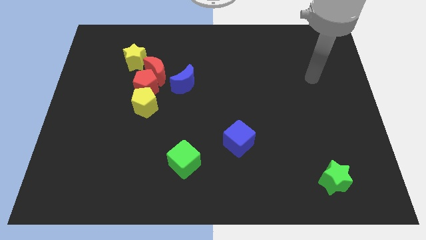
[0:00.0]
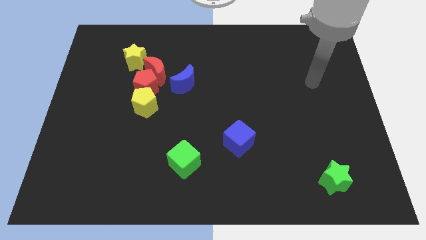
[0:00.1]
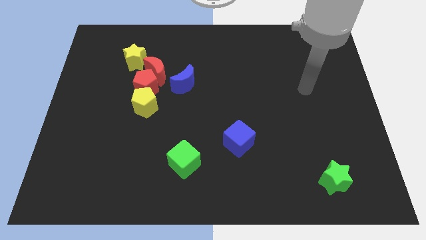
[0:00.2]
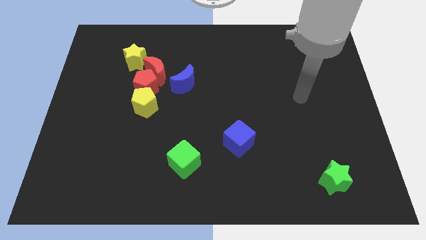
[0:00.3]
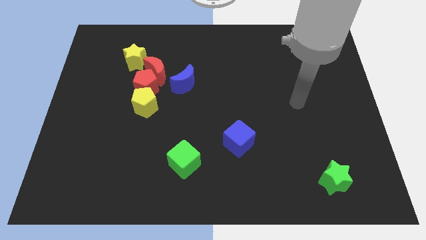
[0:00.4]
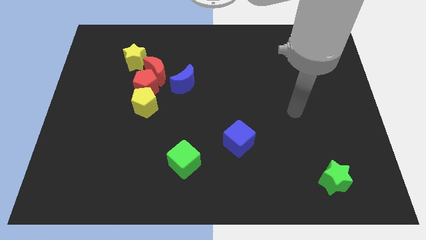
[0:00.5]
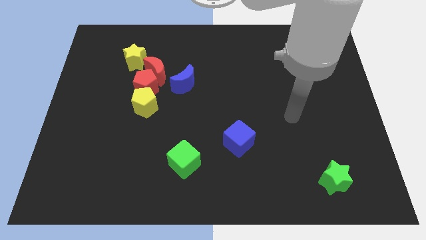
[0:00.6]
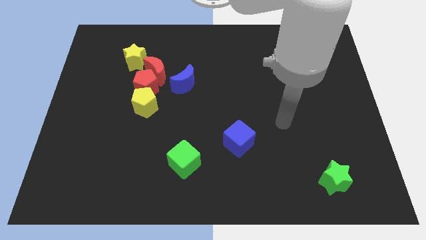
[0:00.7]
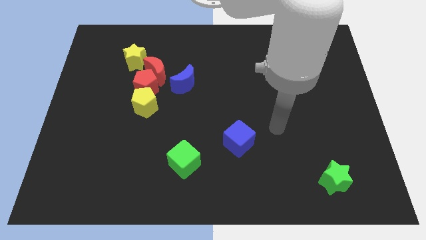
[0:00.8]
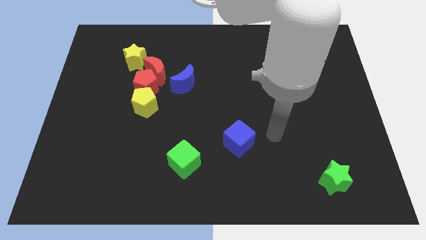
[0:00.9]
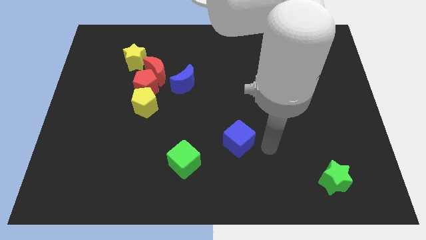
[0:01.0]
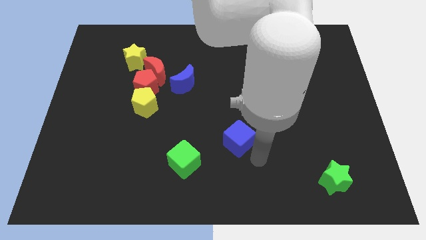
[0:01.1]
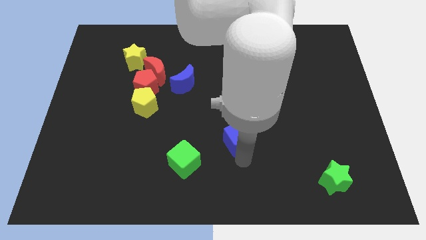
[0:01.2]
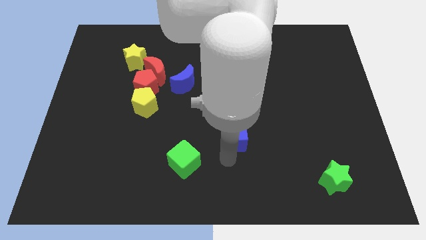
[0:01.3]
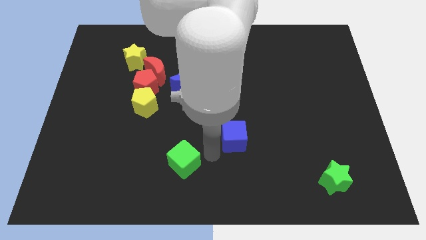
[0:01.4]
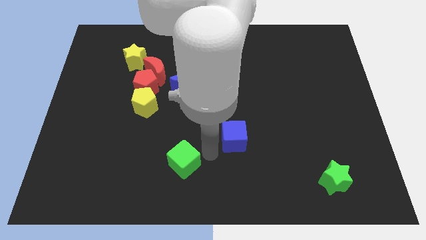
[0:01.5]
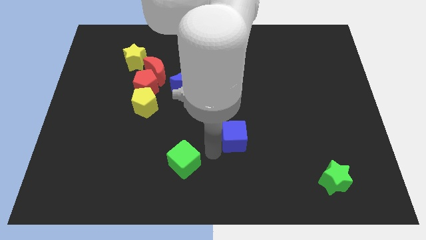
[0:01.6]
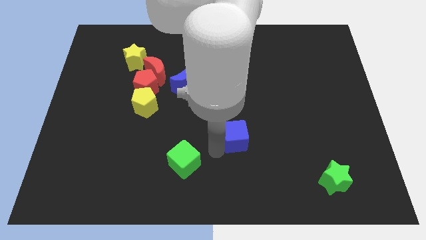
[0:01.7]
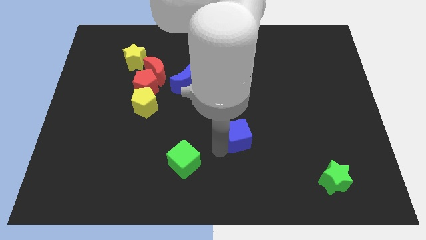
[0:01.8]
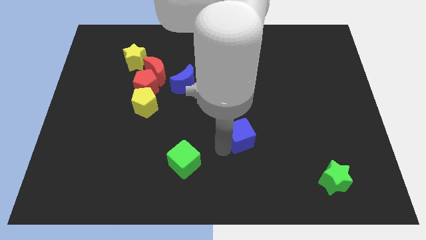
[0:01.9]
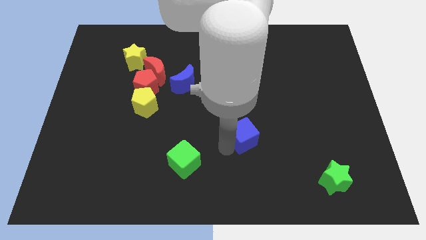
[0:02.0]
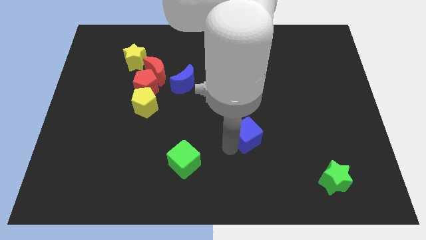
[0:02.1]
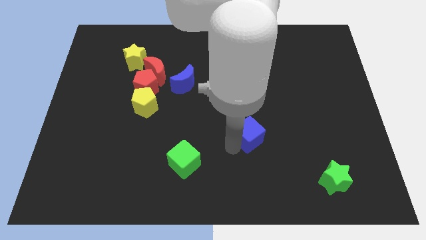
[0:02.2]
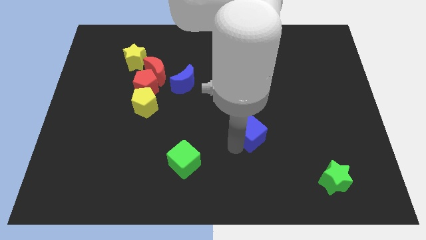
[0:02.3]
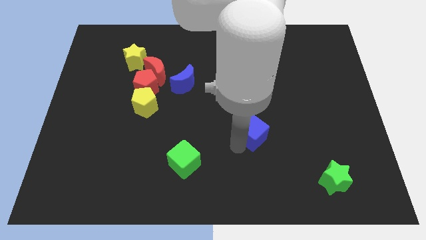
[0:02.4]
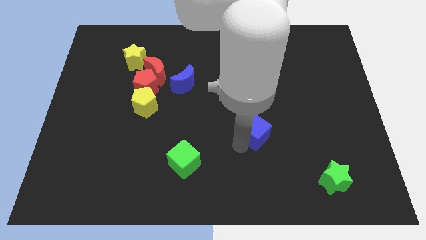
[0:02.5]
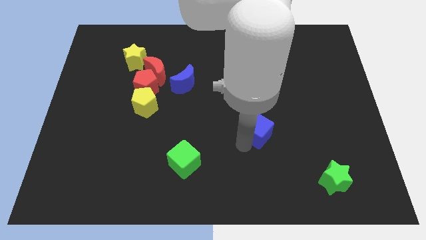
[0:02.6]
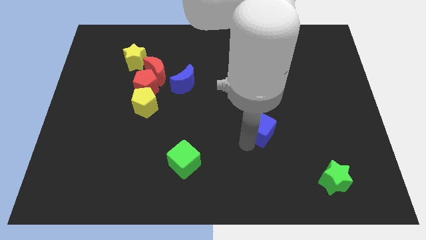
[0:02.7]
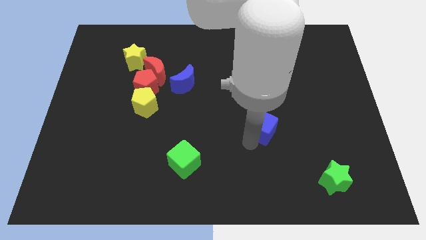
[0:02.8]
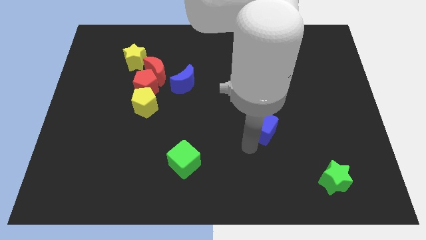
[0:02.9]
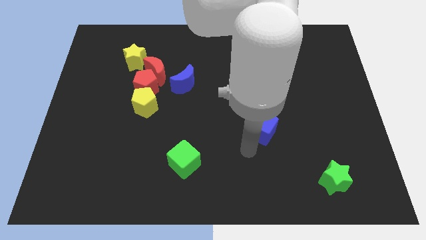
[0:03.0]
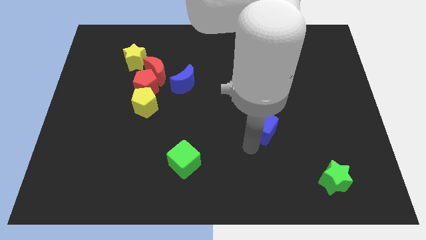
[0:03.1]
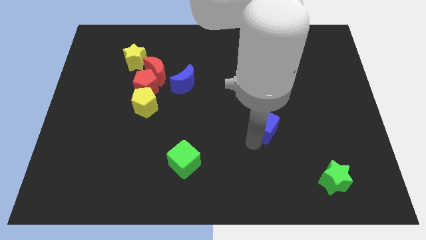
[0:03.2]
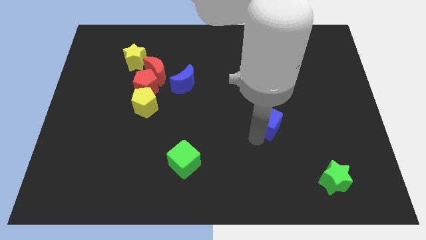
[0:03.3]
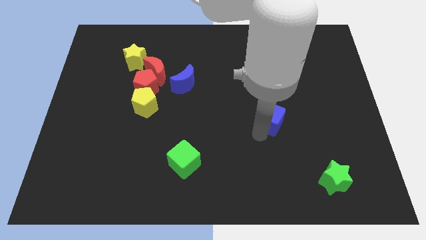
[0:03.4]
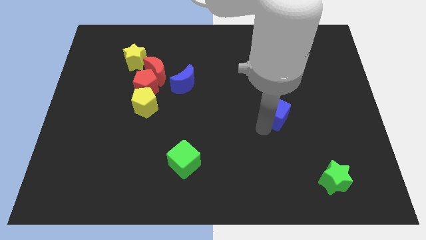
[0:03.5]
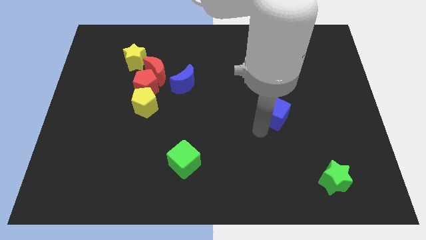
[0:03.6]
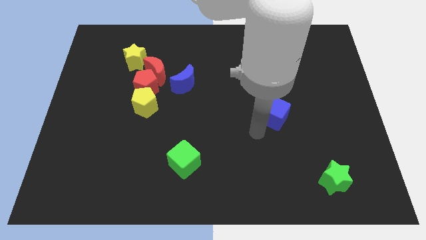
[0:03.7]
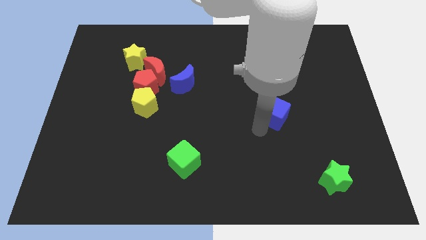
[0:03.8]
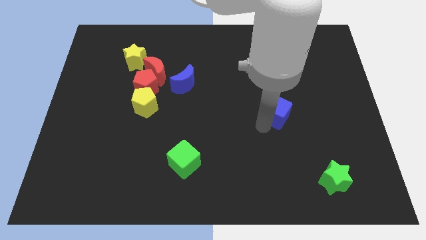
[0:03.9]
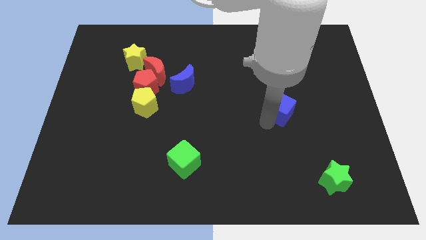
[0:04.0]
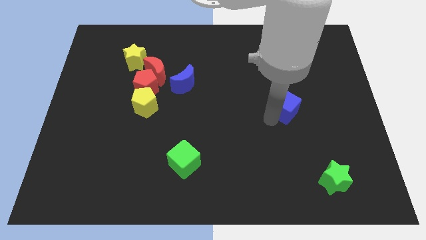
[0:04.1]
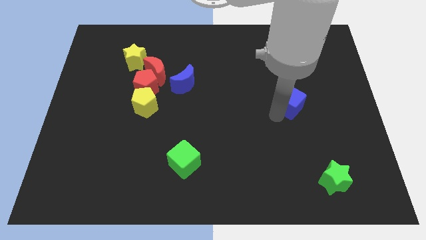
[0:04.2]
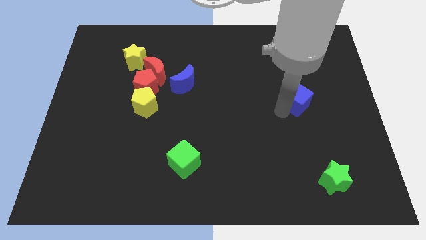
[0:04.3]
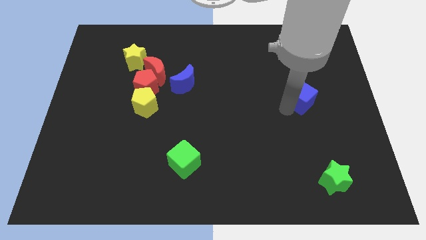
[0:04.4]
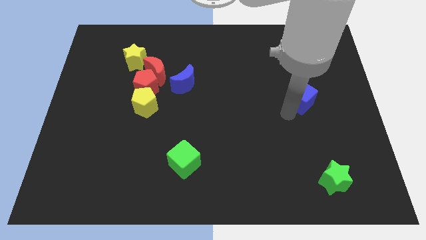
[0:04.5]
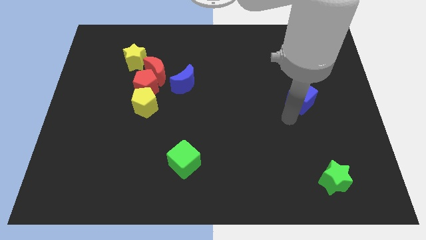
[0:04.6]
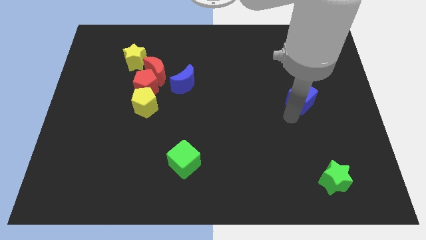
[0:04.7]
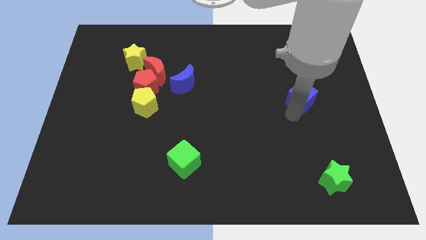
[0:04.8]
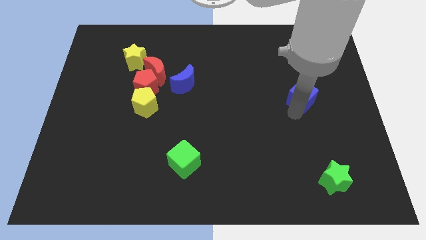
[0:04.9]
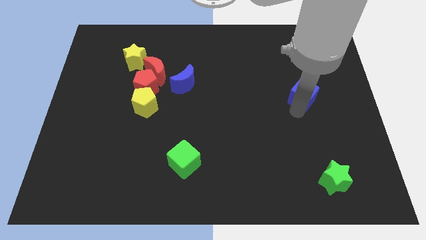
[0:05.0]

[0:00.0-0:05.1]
push the blue cube up and then to the right

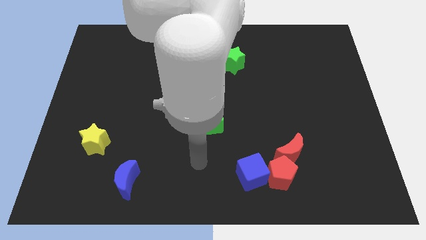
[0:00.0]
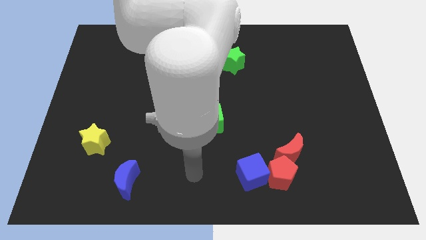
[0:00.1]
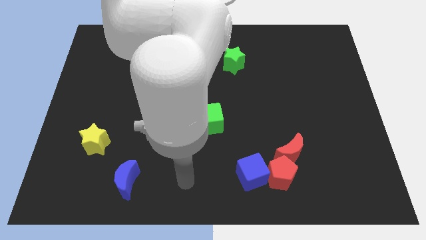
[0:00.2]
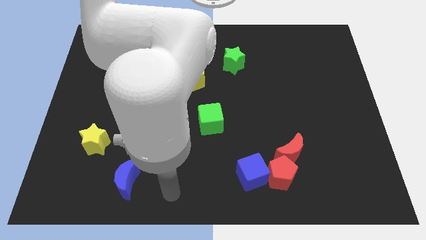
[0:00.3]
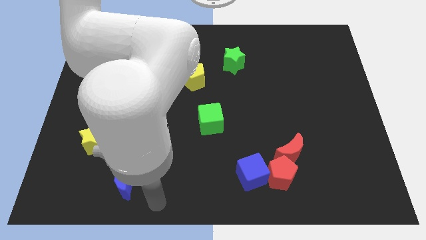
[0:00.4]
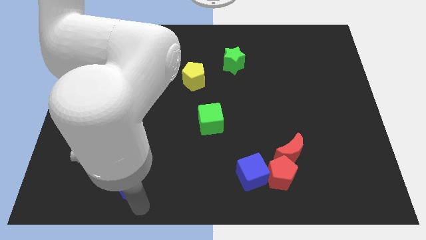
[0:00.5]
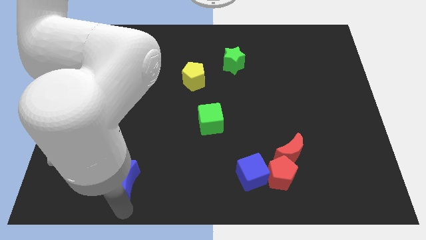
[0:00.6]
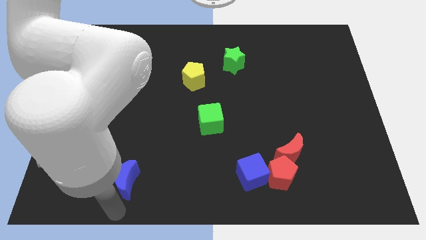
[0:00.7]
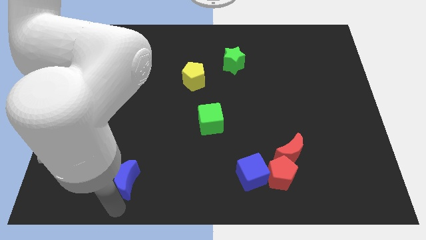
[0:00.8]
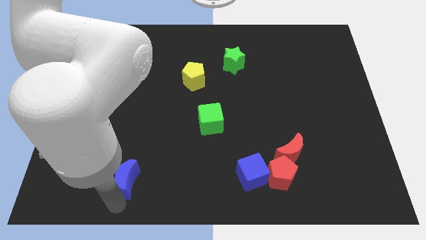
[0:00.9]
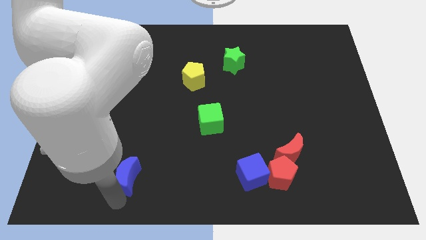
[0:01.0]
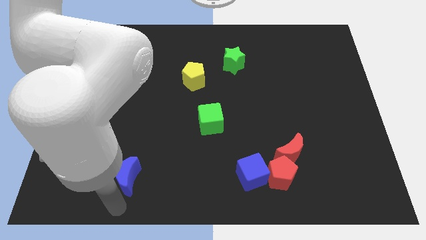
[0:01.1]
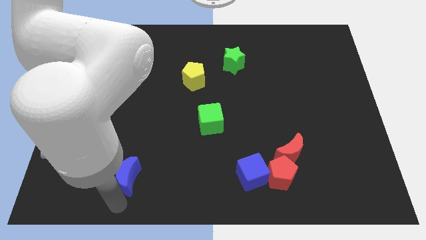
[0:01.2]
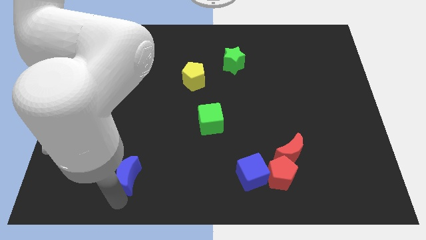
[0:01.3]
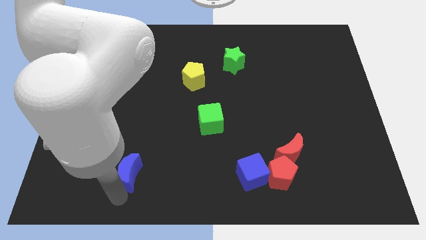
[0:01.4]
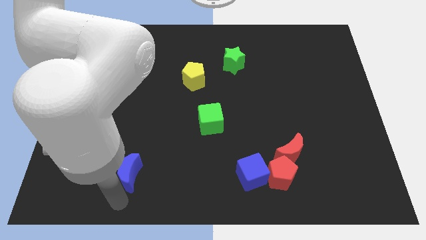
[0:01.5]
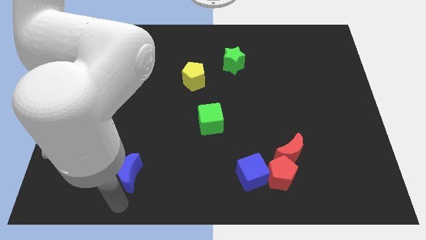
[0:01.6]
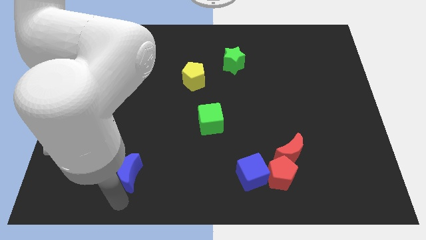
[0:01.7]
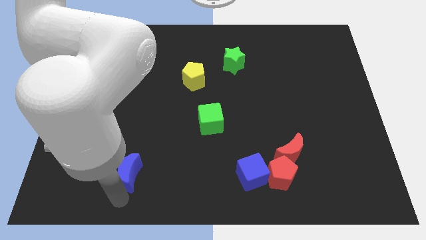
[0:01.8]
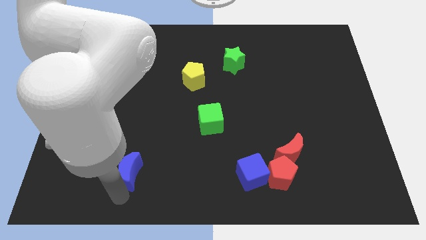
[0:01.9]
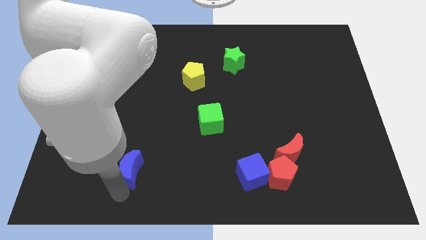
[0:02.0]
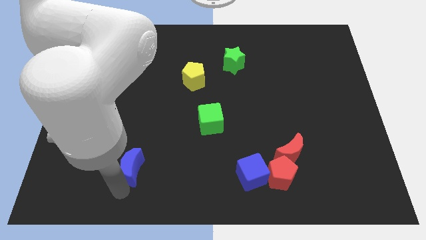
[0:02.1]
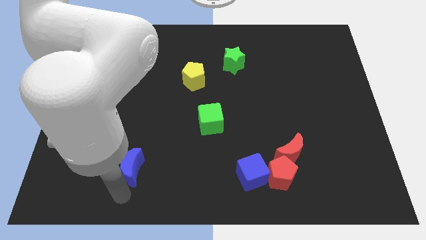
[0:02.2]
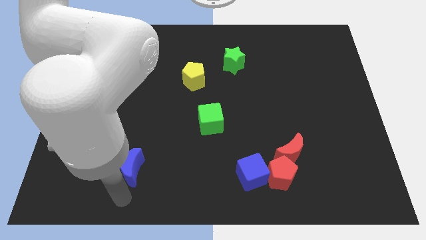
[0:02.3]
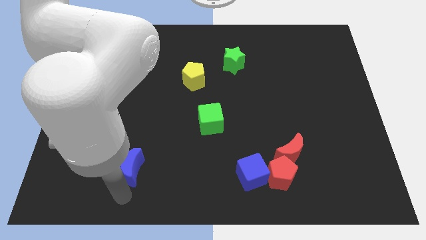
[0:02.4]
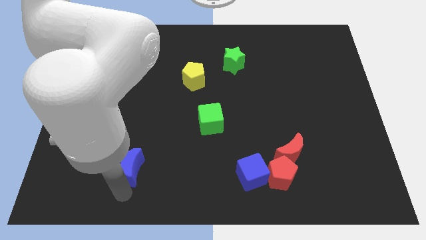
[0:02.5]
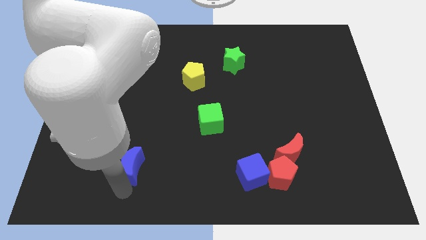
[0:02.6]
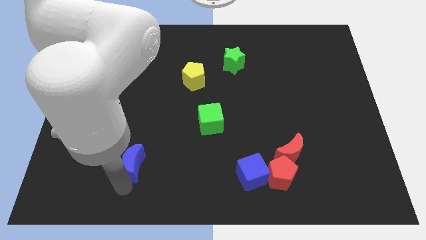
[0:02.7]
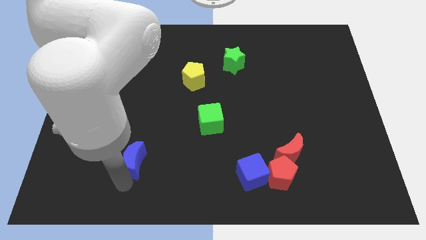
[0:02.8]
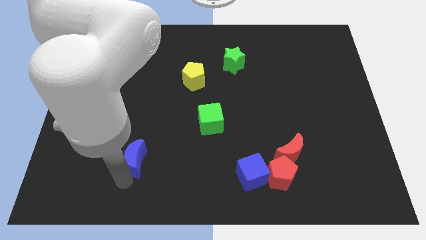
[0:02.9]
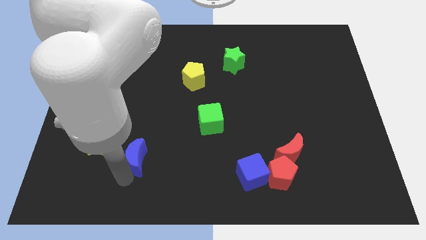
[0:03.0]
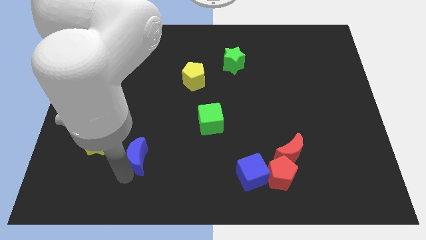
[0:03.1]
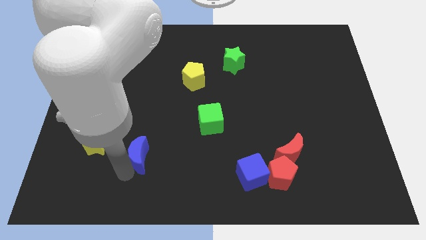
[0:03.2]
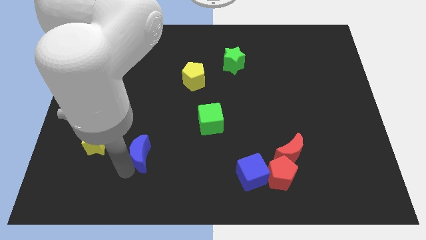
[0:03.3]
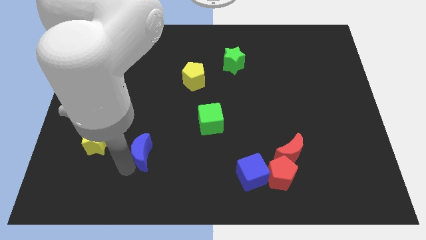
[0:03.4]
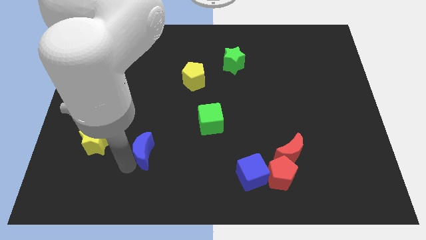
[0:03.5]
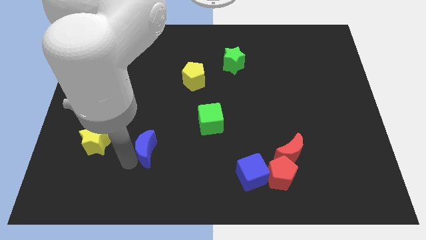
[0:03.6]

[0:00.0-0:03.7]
slide the blue moon upwards somewhat
